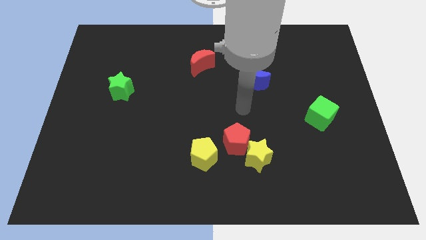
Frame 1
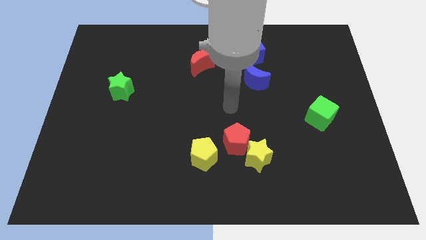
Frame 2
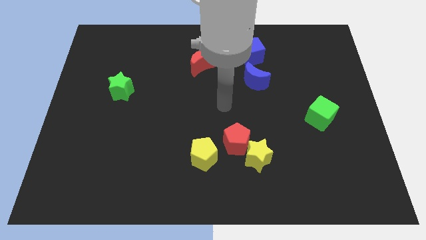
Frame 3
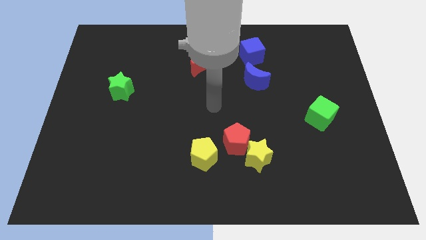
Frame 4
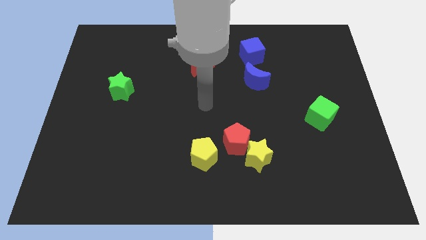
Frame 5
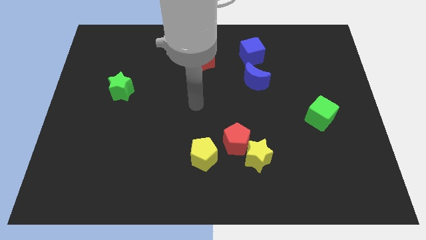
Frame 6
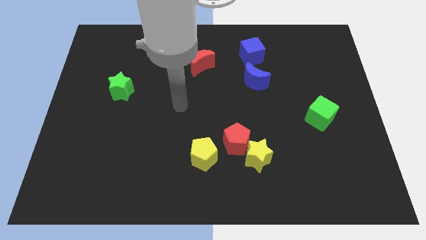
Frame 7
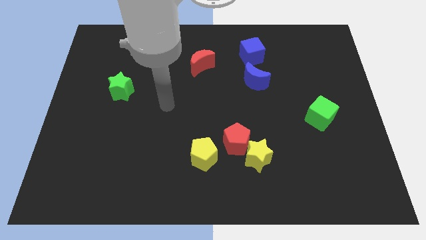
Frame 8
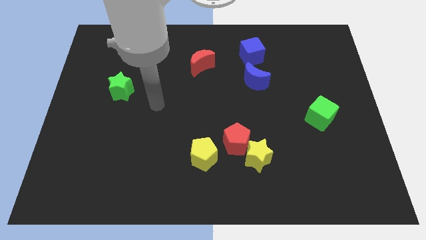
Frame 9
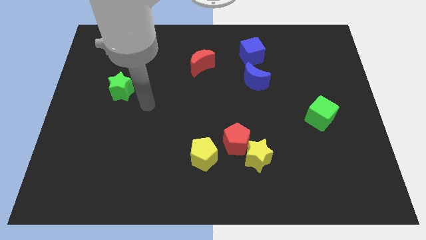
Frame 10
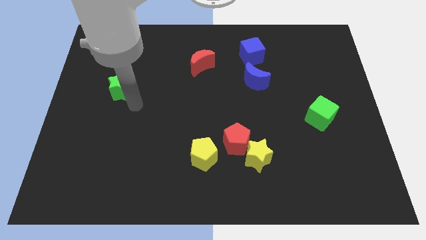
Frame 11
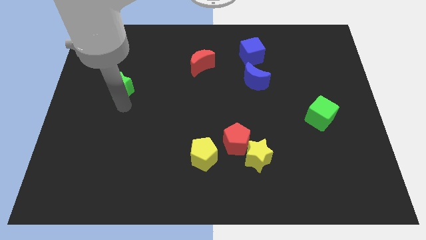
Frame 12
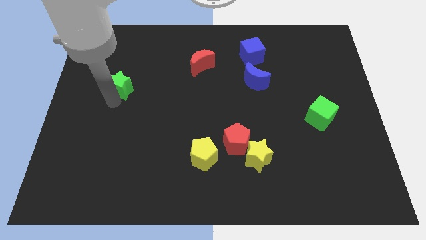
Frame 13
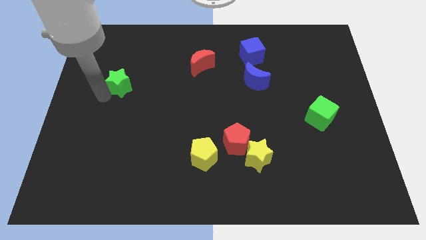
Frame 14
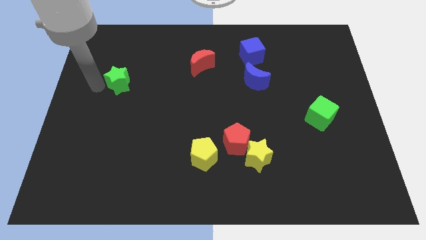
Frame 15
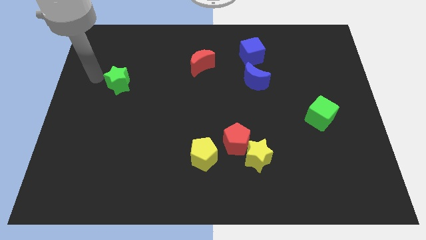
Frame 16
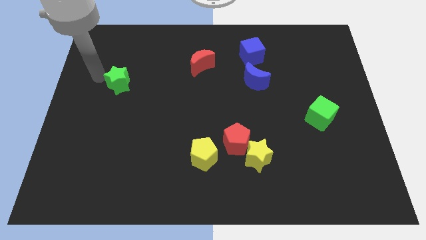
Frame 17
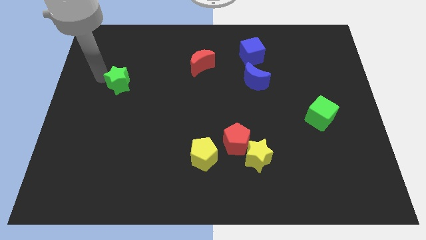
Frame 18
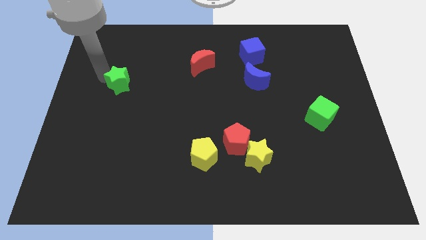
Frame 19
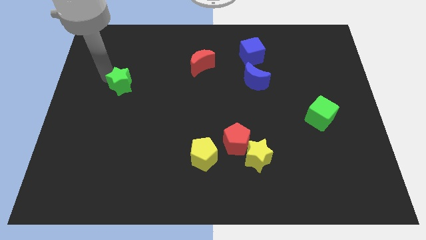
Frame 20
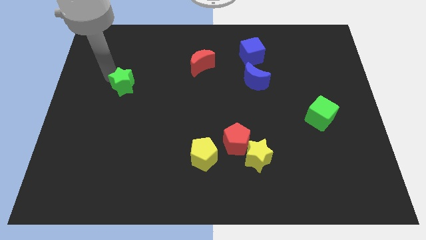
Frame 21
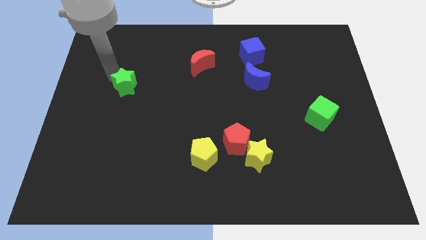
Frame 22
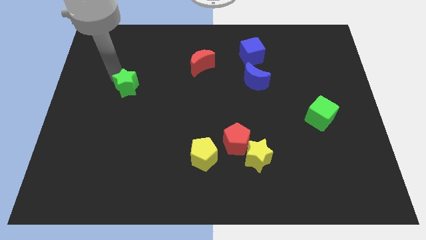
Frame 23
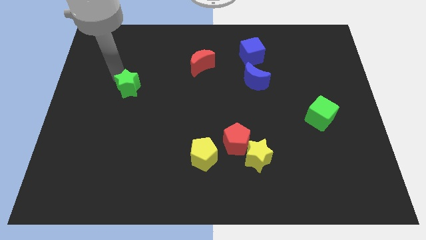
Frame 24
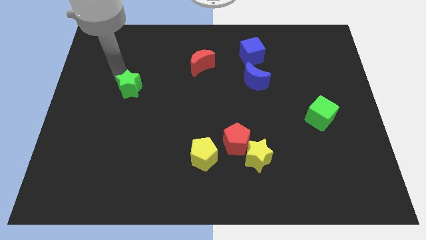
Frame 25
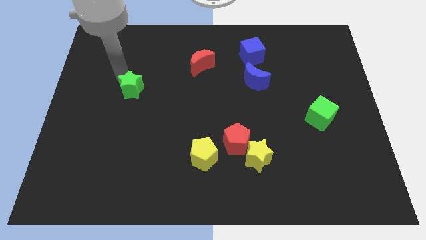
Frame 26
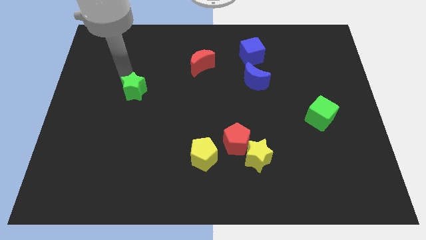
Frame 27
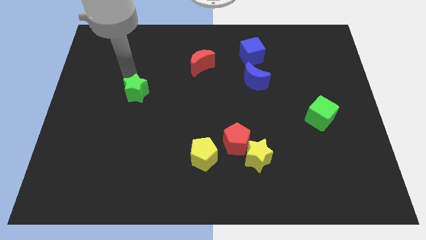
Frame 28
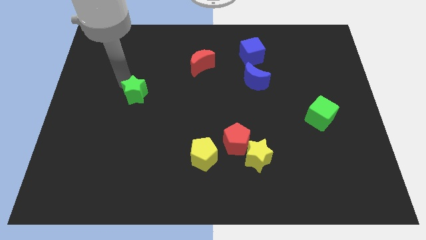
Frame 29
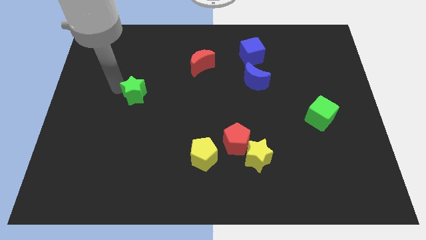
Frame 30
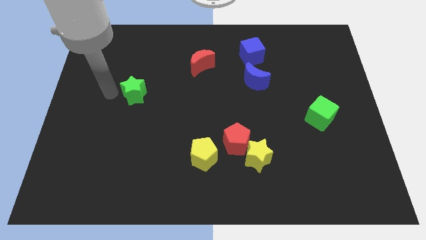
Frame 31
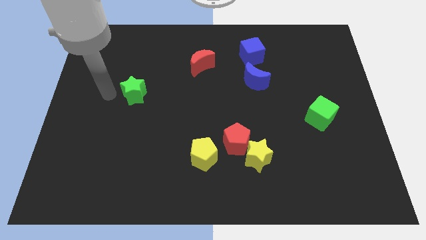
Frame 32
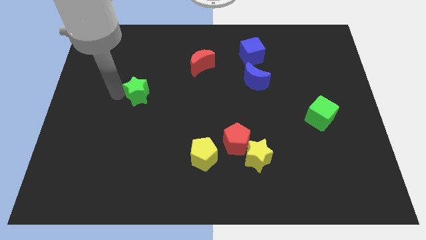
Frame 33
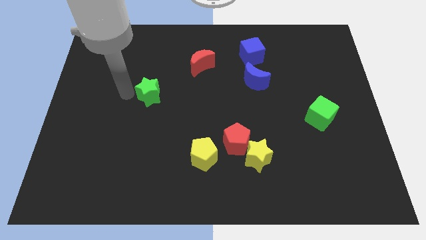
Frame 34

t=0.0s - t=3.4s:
slide the green star to the right slightly

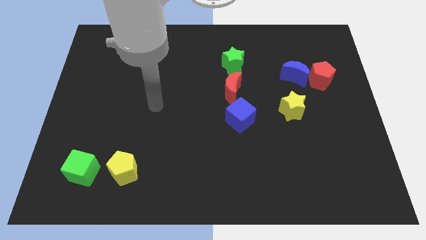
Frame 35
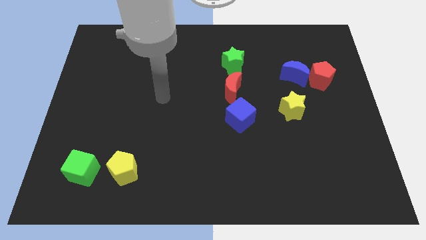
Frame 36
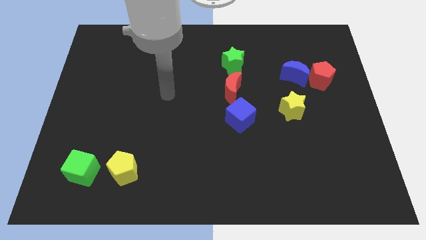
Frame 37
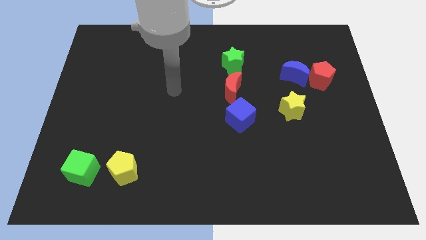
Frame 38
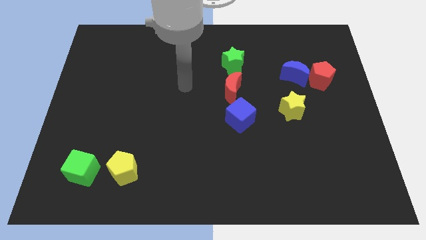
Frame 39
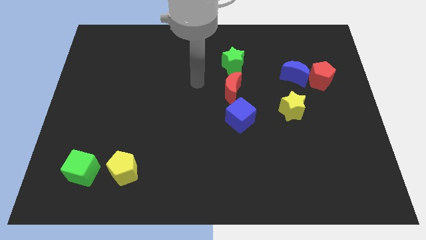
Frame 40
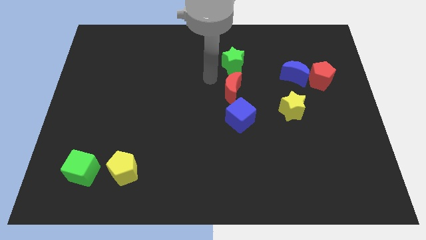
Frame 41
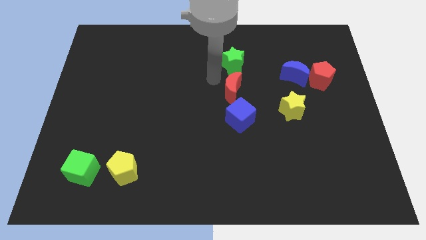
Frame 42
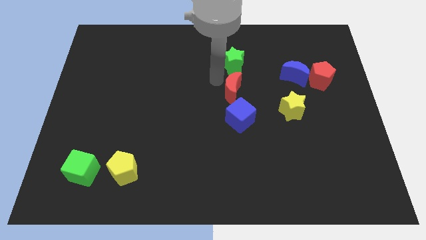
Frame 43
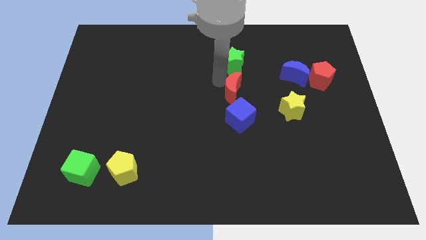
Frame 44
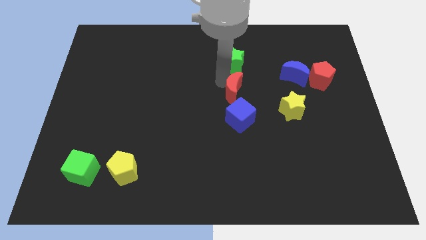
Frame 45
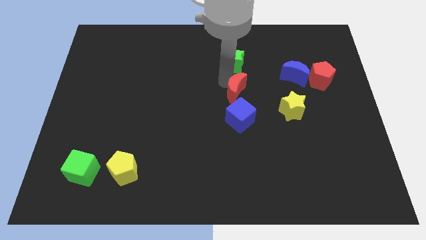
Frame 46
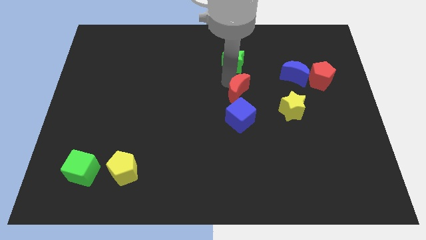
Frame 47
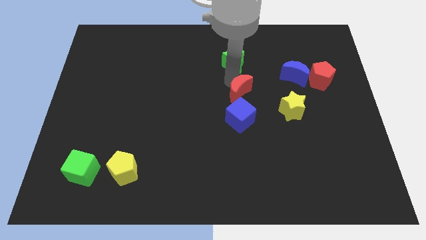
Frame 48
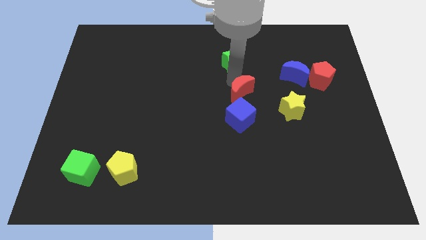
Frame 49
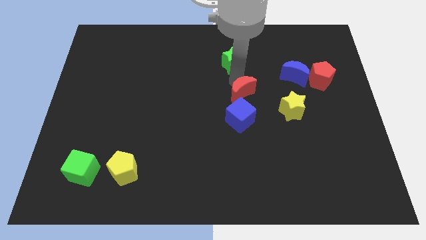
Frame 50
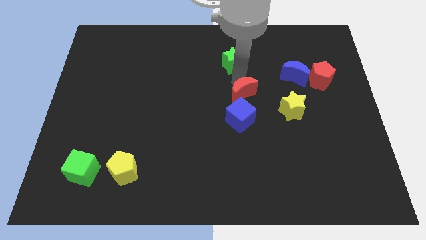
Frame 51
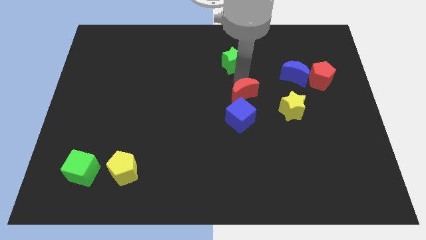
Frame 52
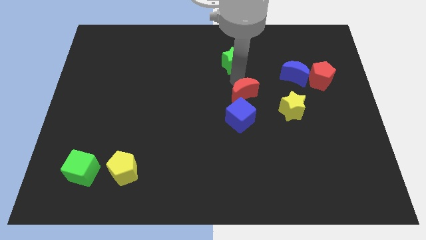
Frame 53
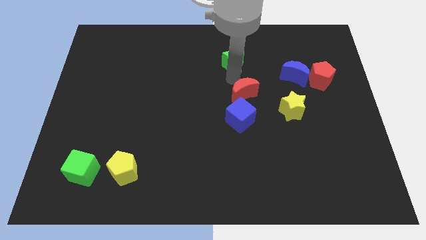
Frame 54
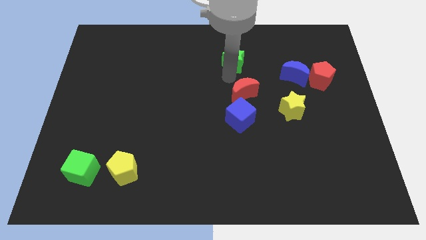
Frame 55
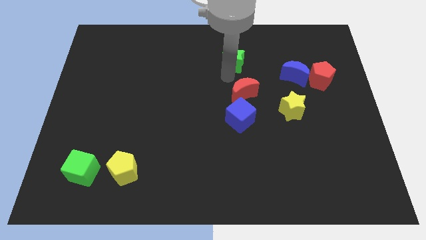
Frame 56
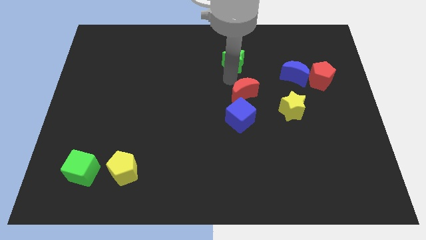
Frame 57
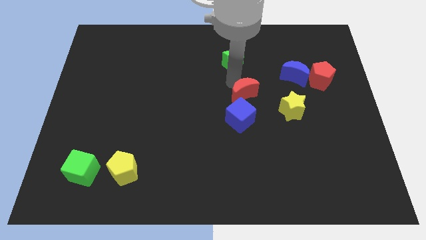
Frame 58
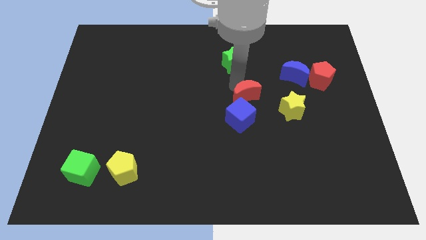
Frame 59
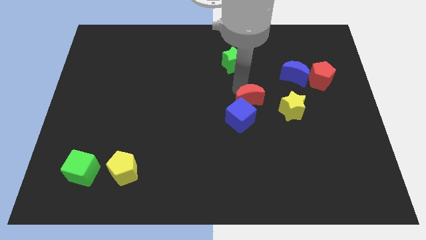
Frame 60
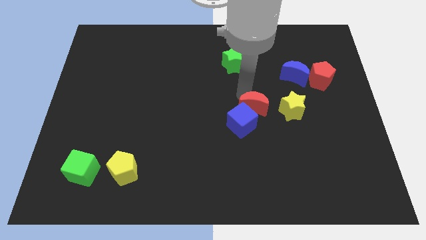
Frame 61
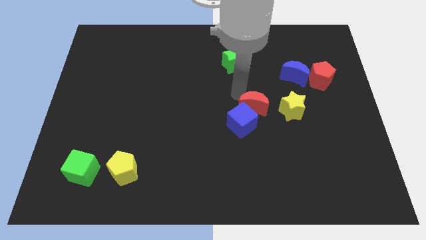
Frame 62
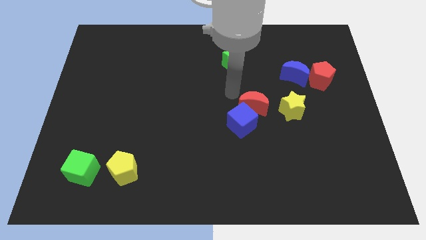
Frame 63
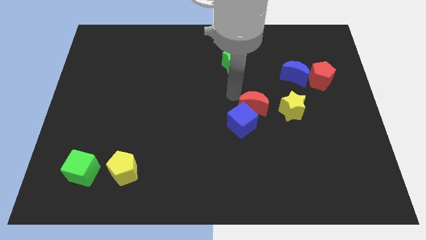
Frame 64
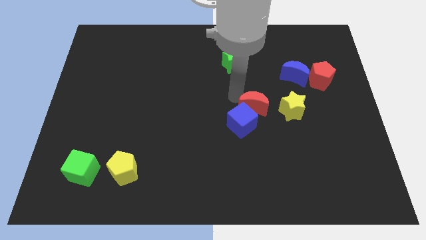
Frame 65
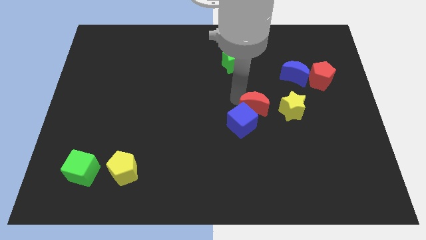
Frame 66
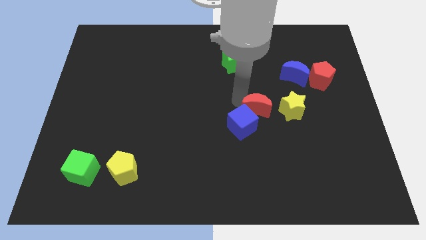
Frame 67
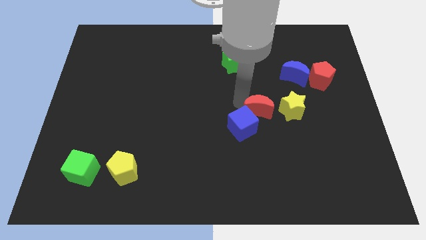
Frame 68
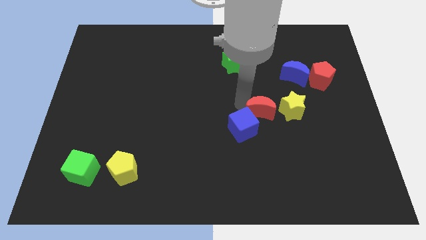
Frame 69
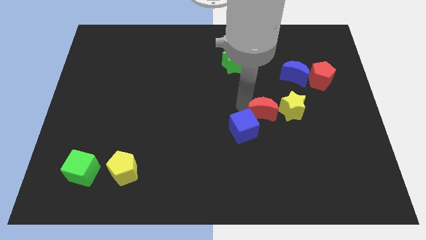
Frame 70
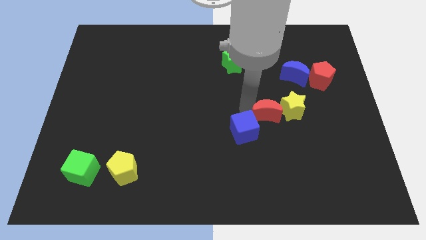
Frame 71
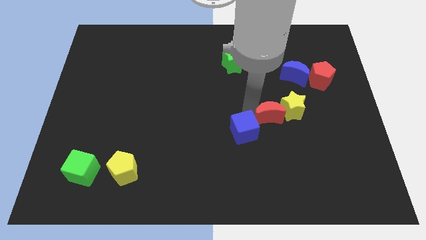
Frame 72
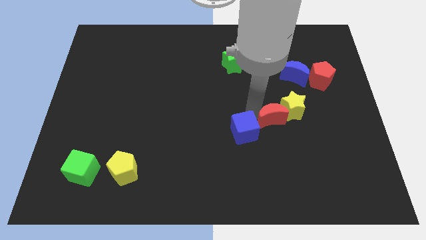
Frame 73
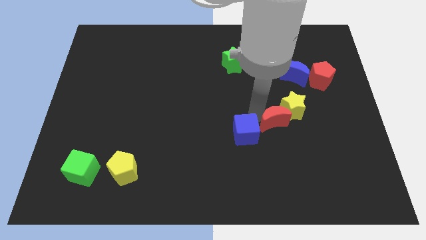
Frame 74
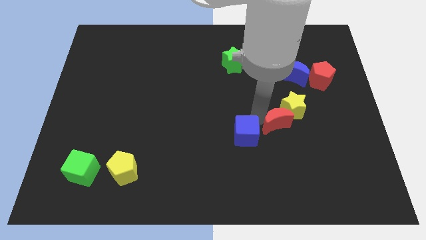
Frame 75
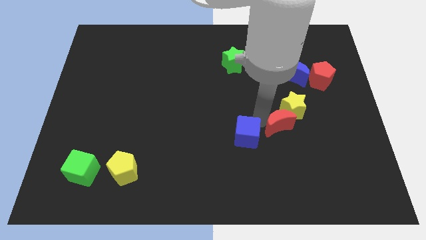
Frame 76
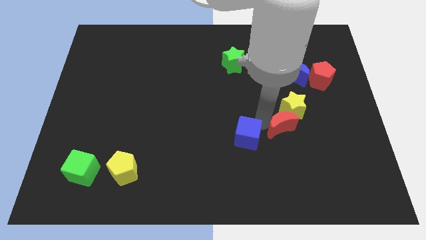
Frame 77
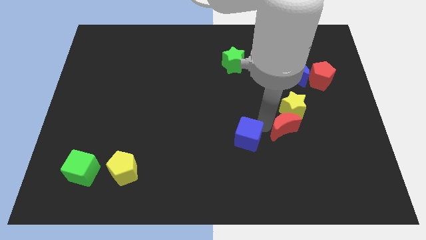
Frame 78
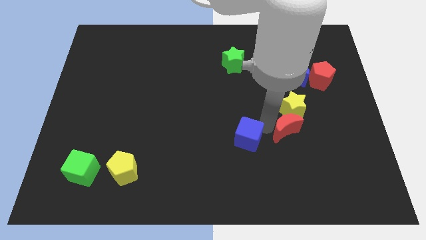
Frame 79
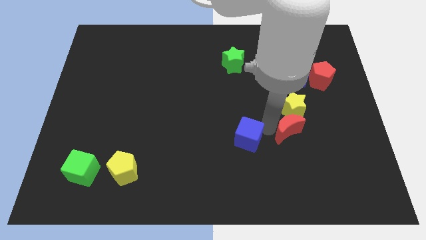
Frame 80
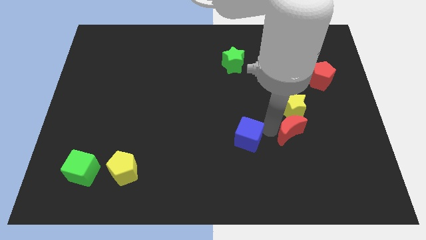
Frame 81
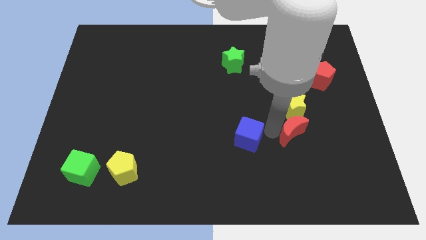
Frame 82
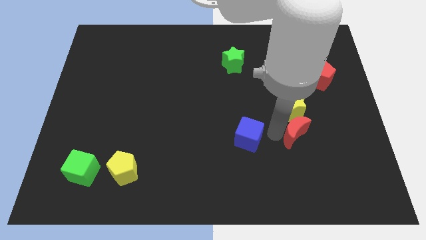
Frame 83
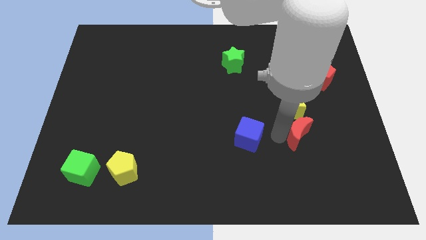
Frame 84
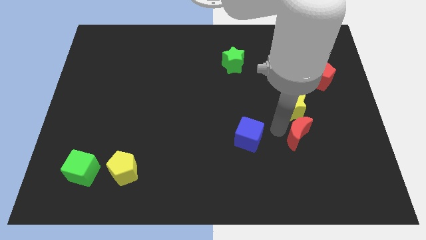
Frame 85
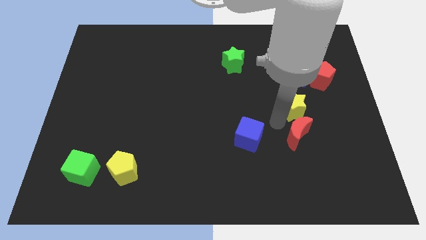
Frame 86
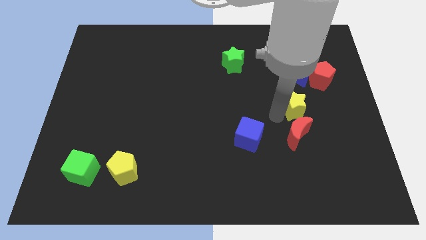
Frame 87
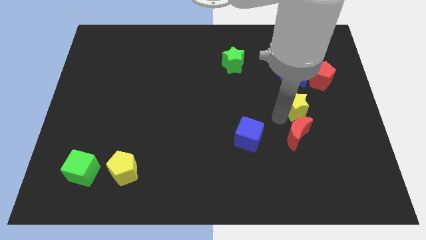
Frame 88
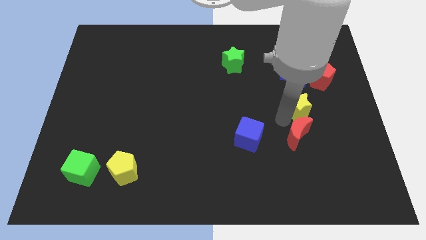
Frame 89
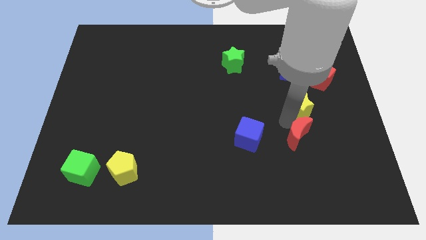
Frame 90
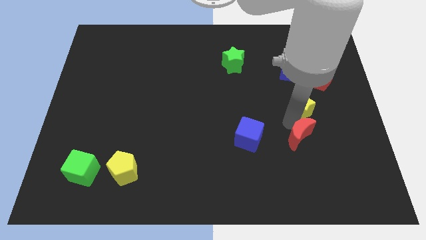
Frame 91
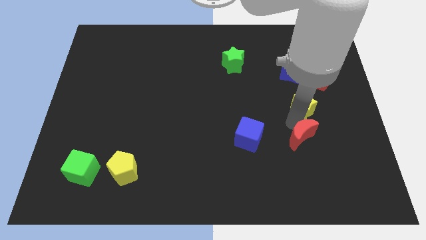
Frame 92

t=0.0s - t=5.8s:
move the red moon diagonally down and right
